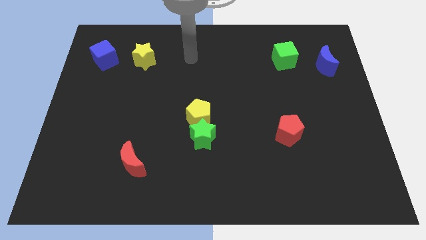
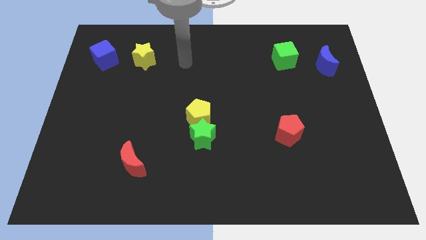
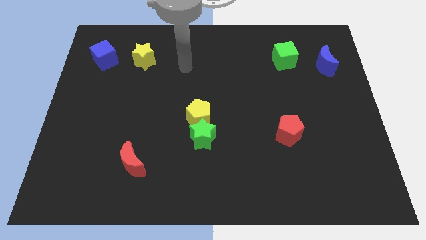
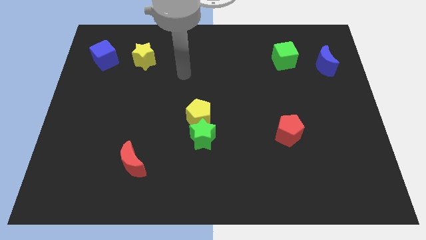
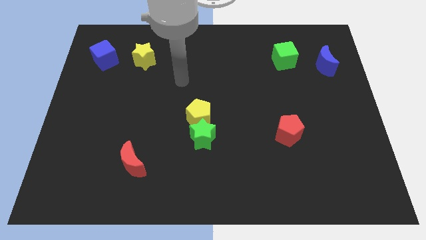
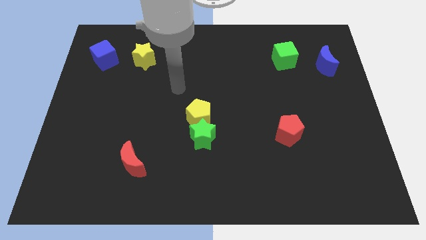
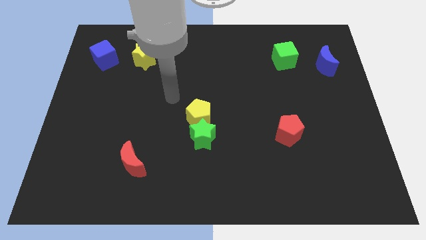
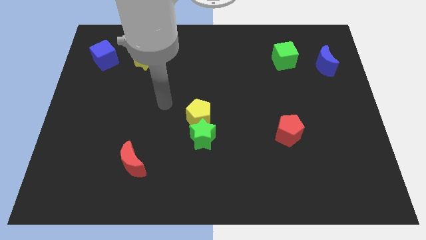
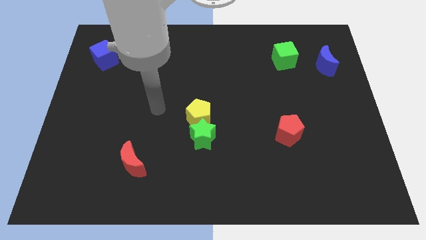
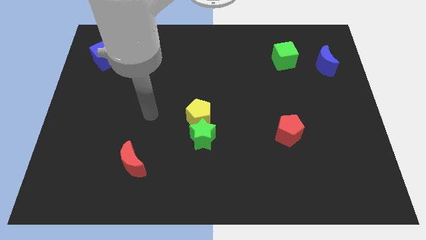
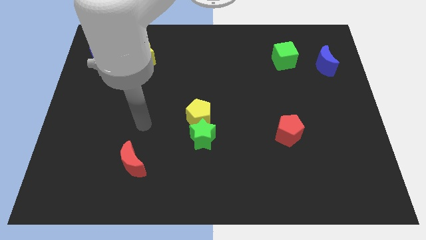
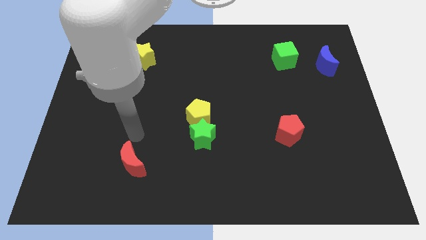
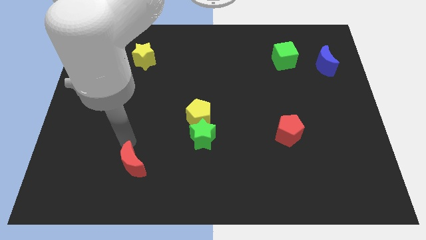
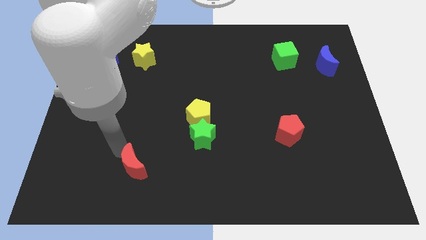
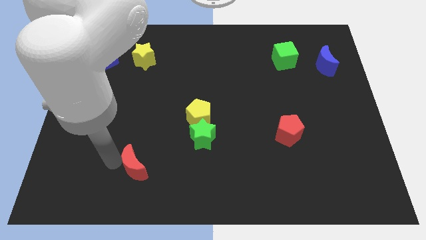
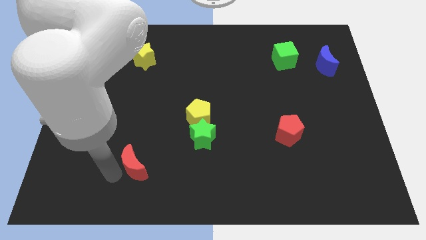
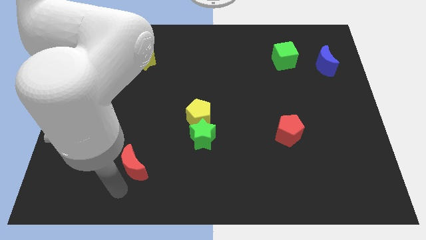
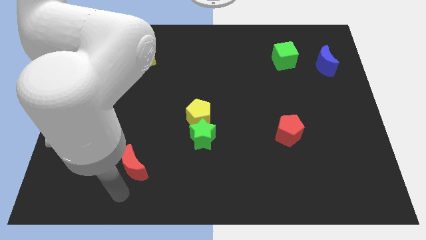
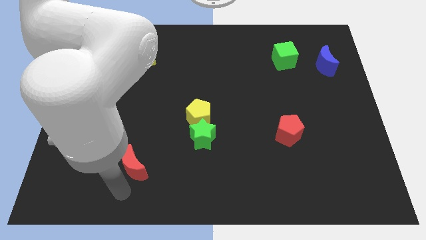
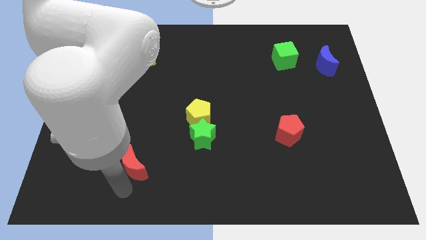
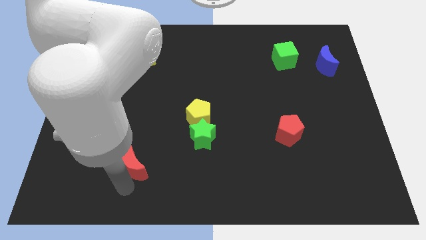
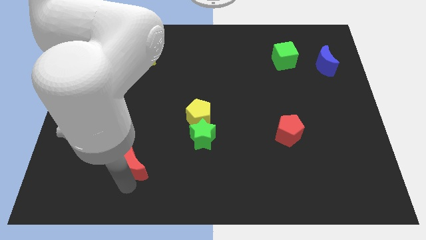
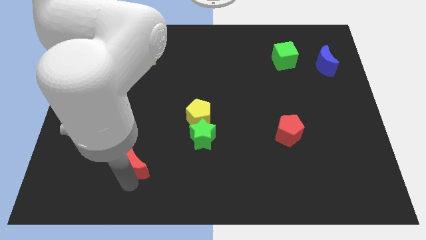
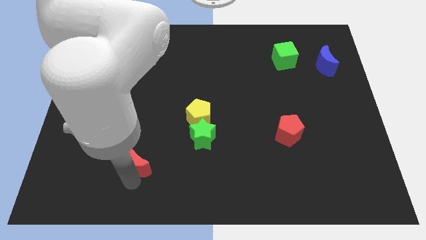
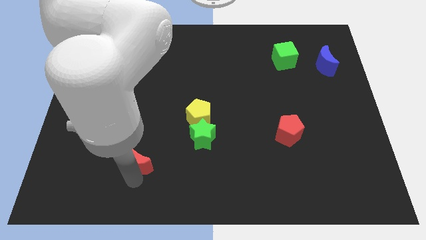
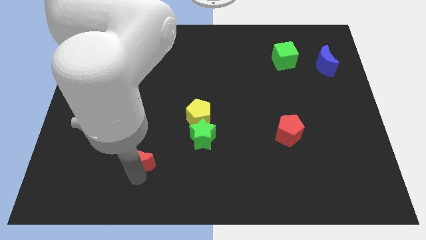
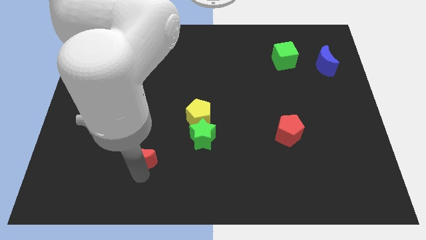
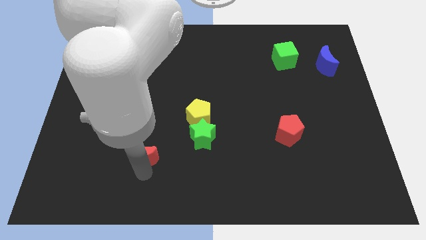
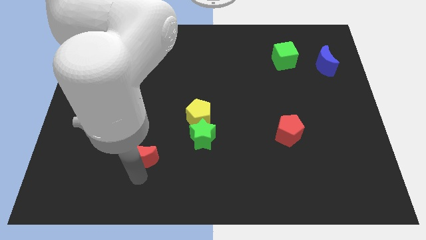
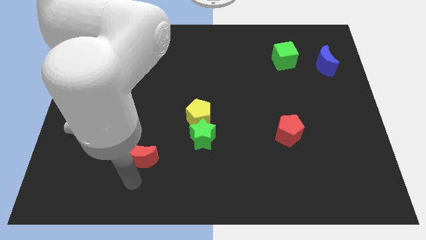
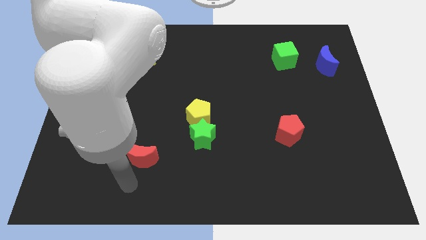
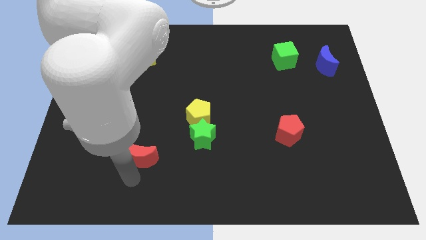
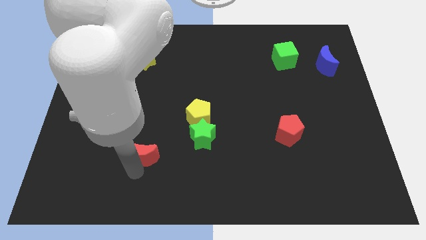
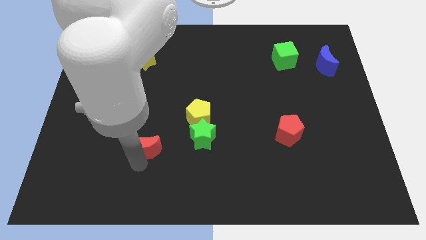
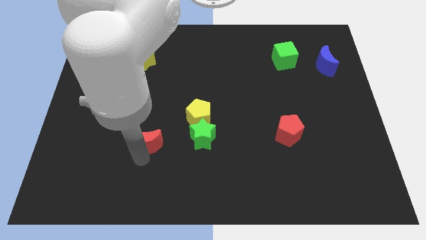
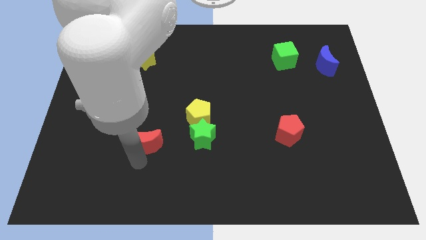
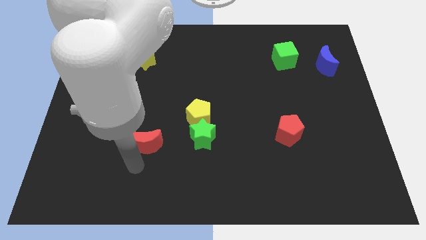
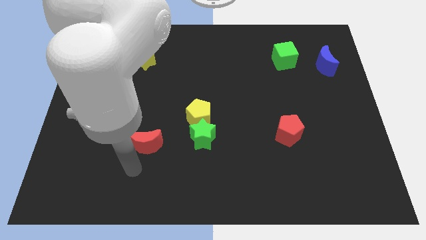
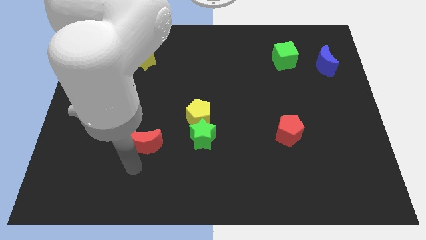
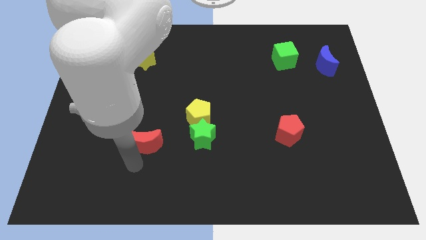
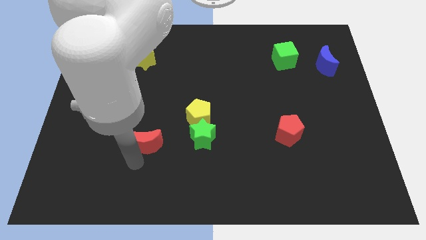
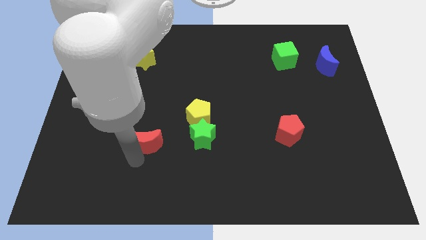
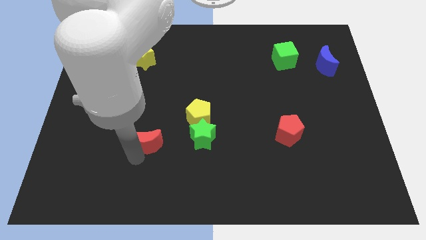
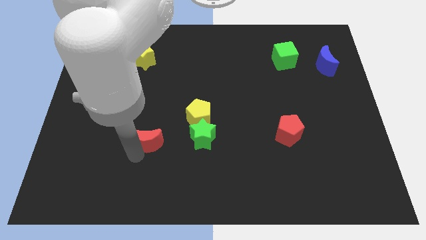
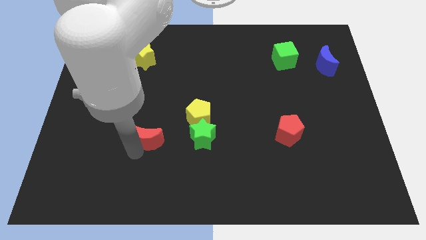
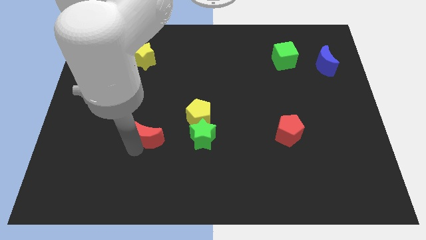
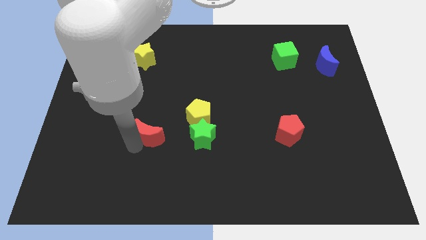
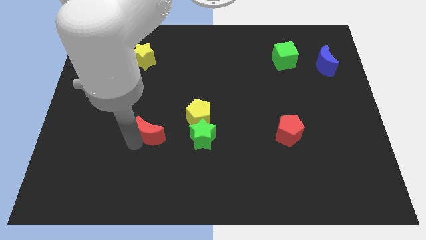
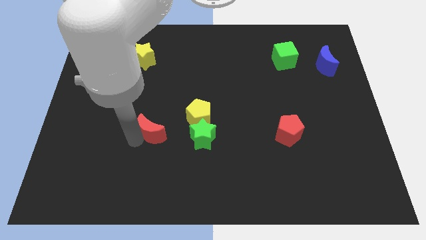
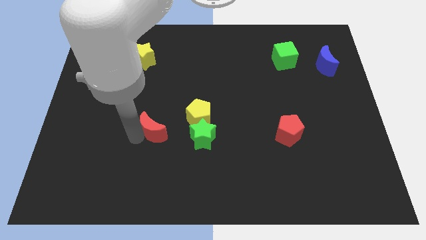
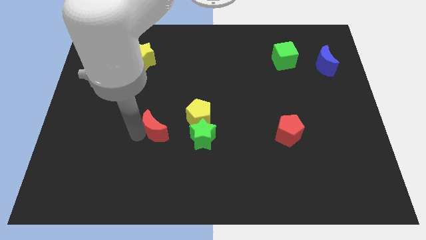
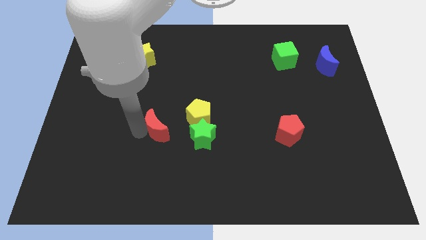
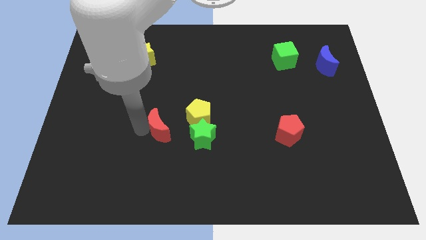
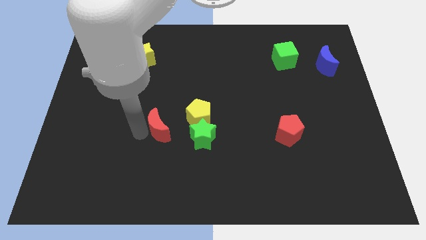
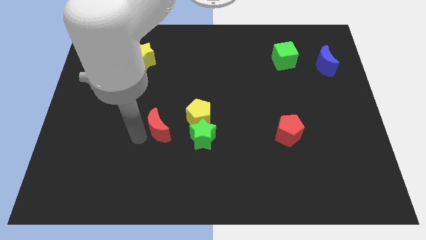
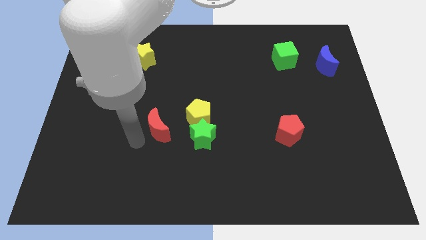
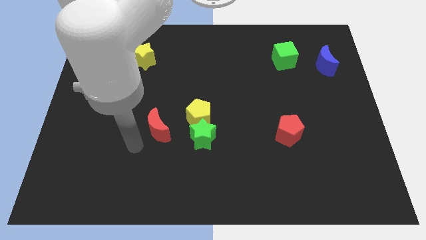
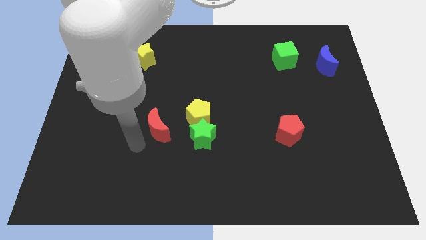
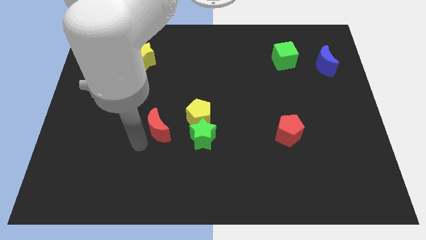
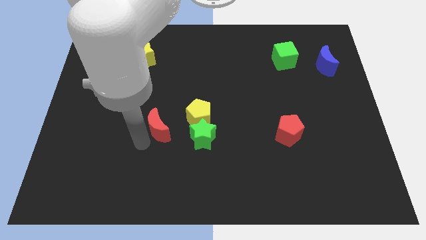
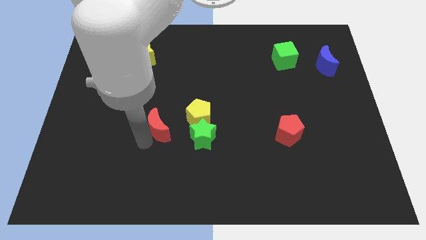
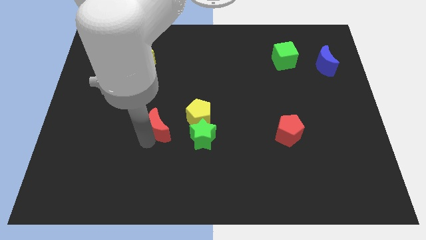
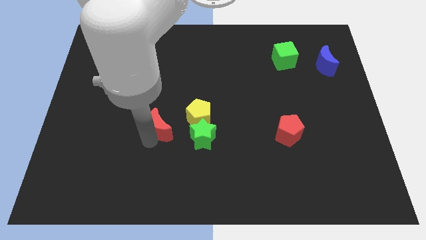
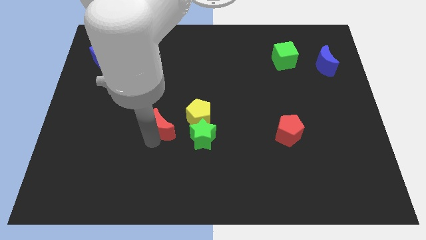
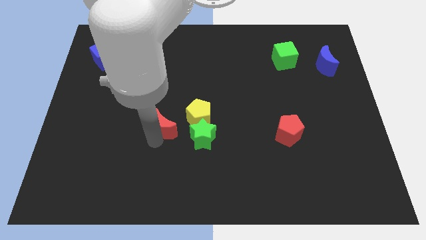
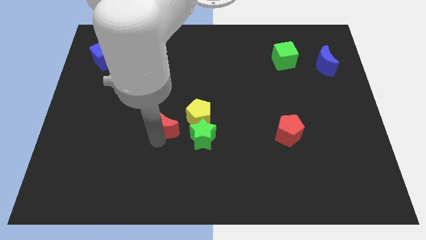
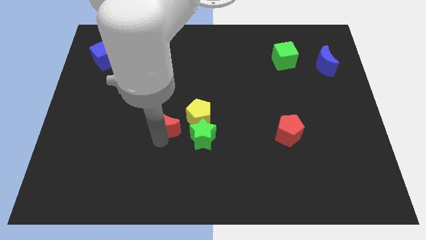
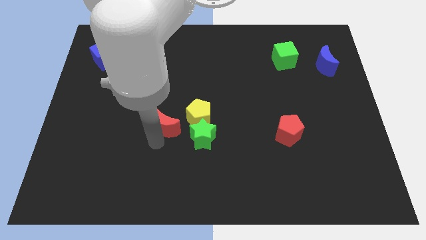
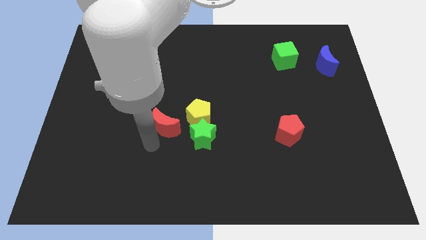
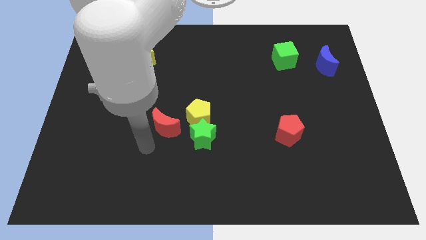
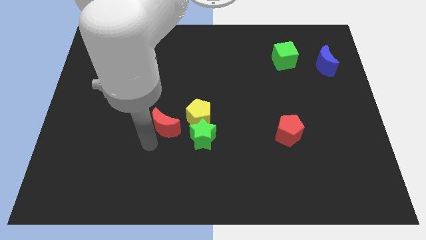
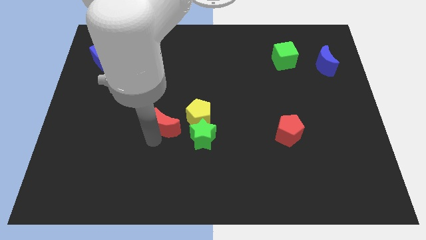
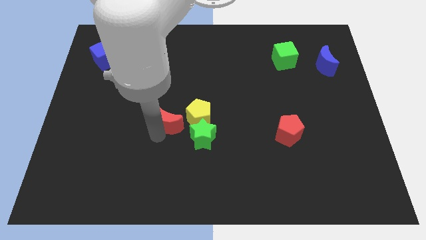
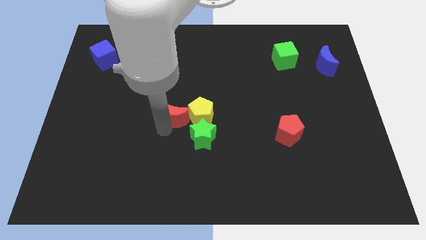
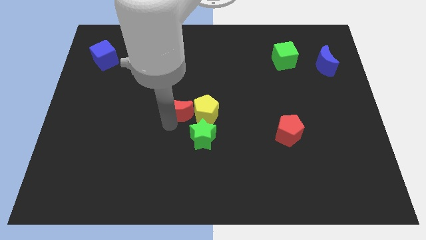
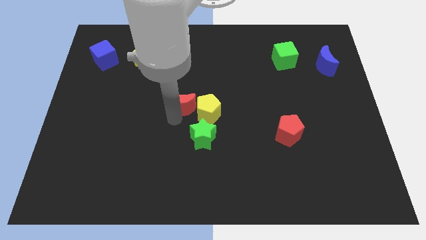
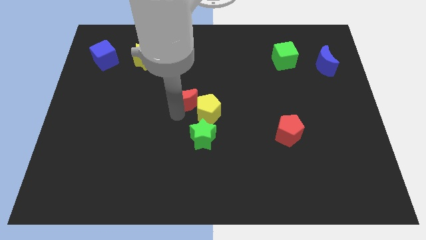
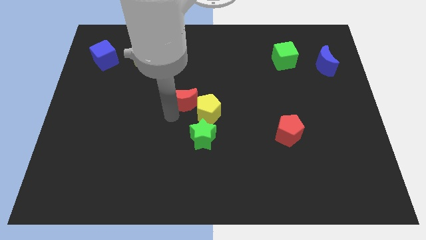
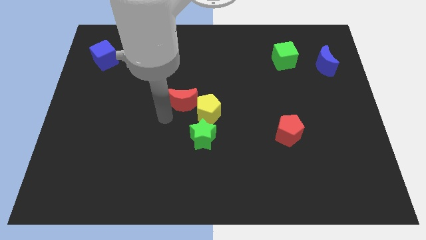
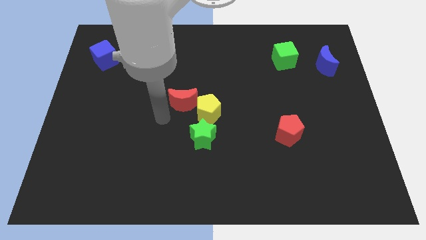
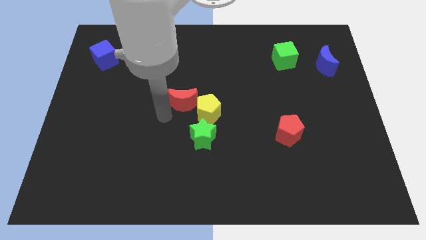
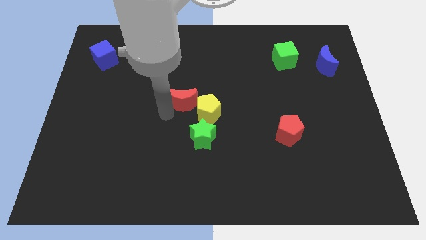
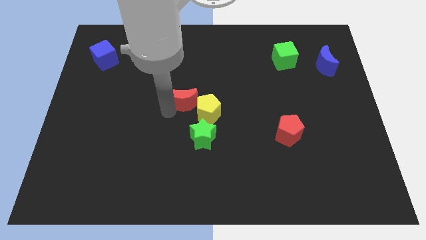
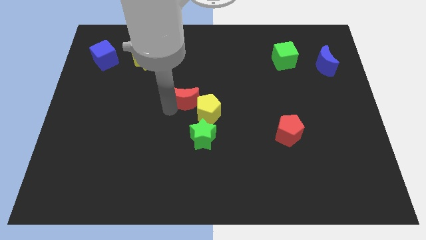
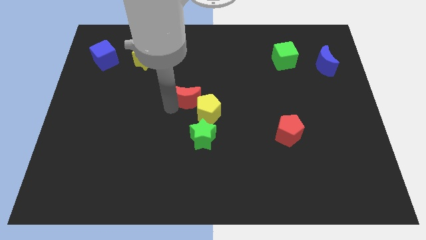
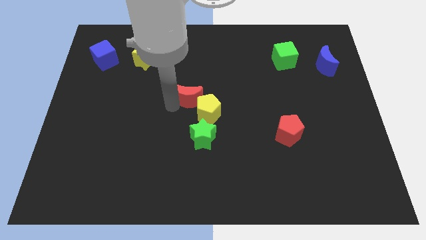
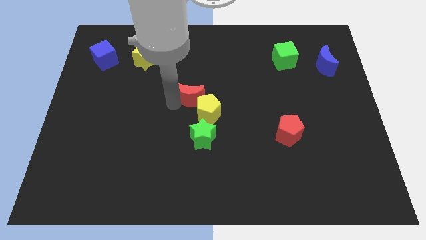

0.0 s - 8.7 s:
slide the red moon diagonally upwards and to the right
